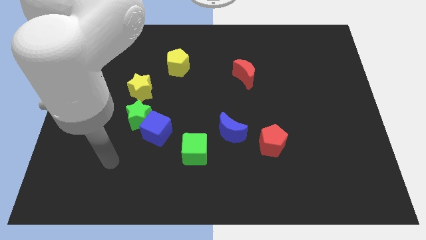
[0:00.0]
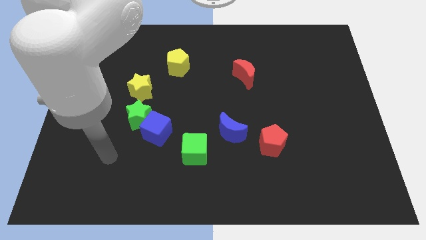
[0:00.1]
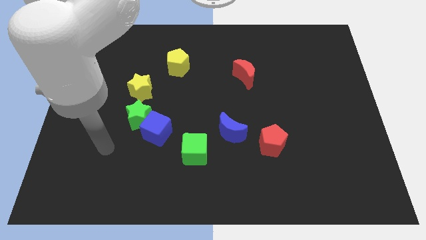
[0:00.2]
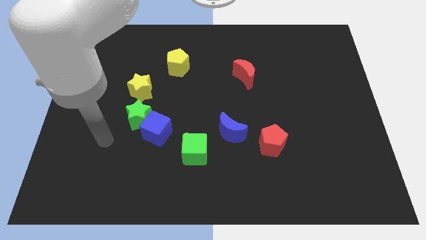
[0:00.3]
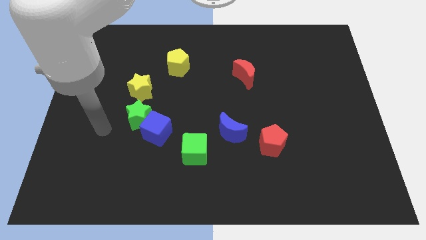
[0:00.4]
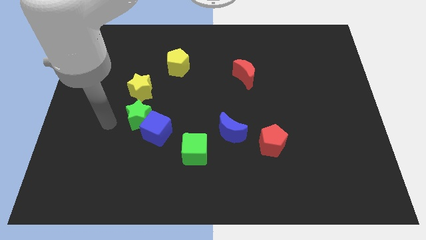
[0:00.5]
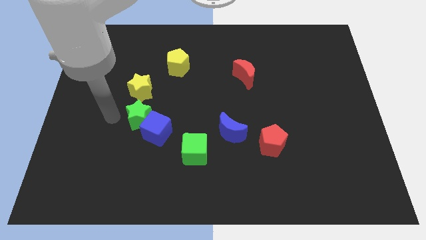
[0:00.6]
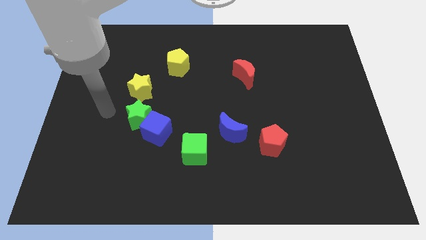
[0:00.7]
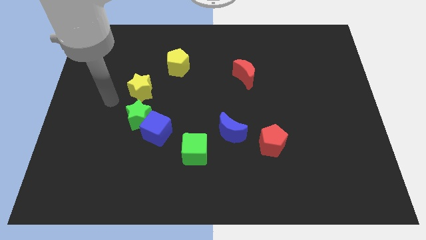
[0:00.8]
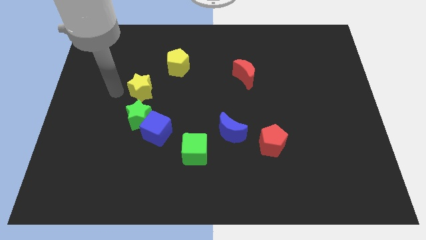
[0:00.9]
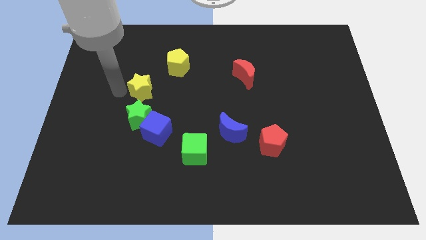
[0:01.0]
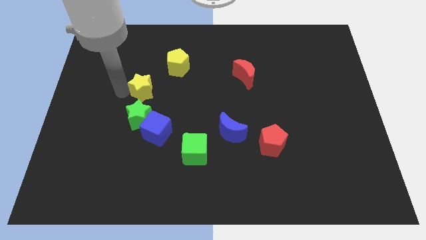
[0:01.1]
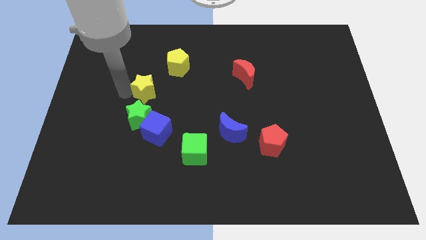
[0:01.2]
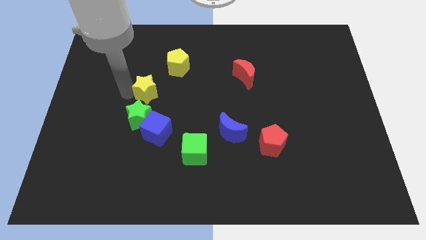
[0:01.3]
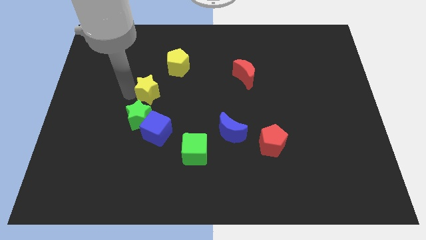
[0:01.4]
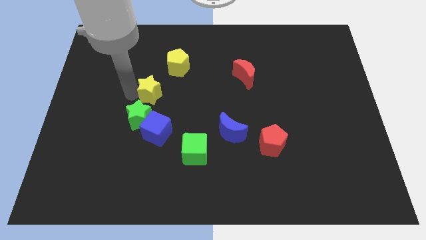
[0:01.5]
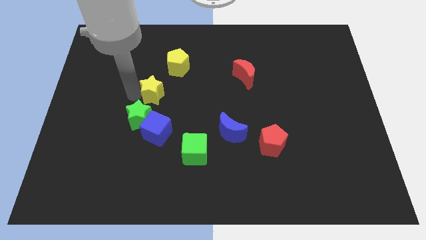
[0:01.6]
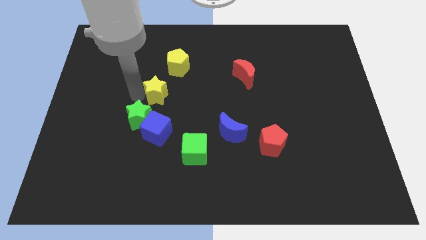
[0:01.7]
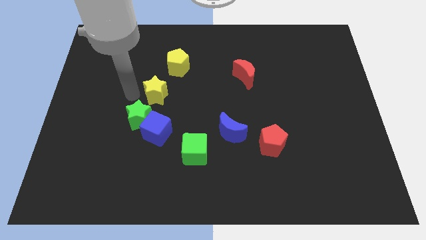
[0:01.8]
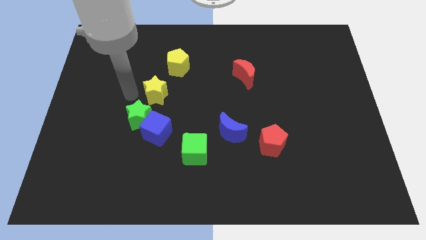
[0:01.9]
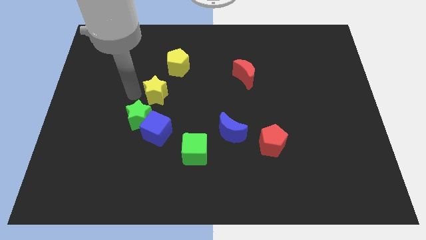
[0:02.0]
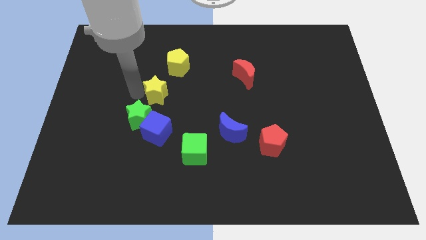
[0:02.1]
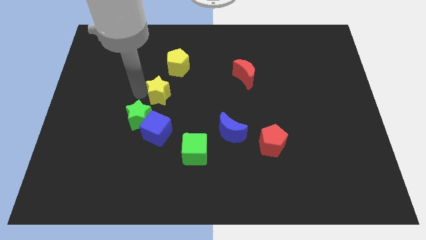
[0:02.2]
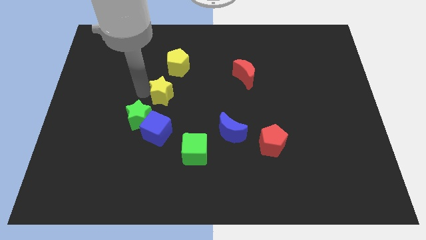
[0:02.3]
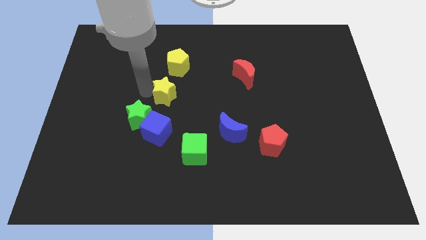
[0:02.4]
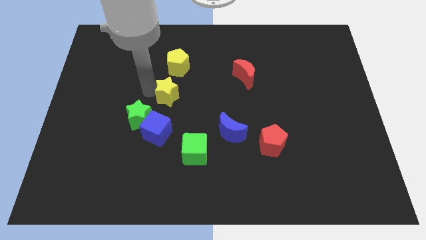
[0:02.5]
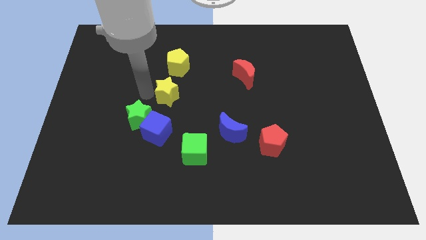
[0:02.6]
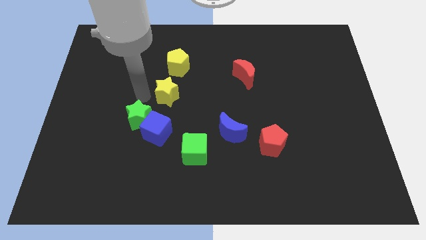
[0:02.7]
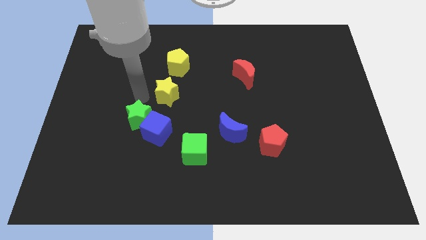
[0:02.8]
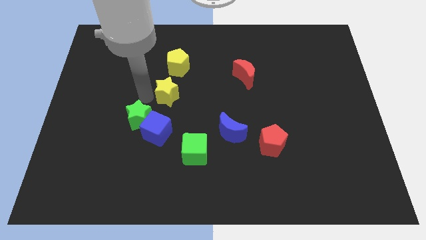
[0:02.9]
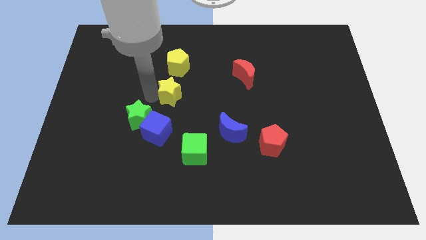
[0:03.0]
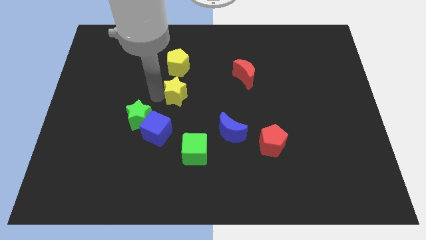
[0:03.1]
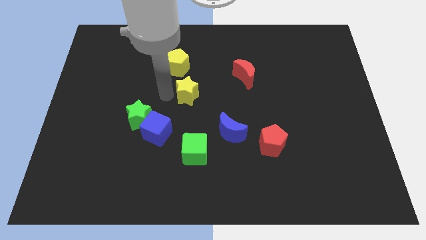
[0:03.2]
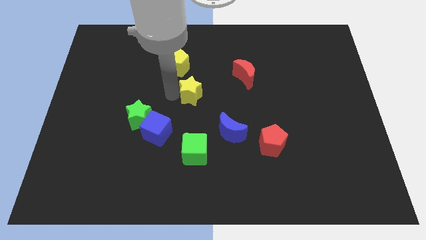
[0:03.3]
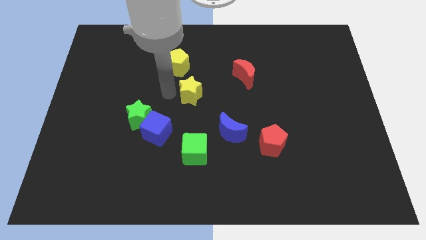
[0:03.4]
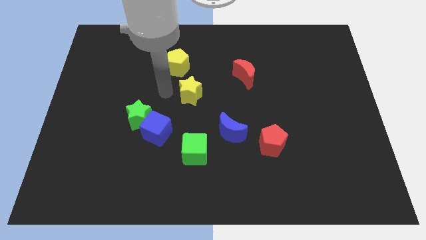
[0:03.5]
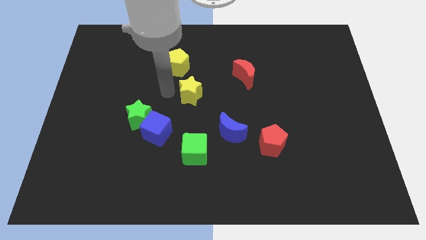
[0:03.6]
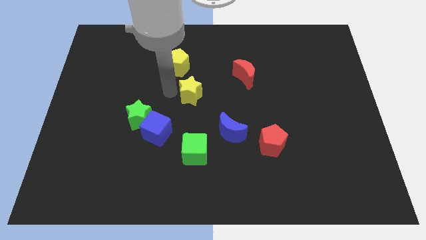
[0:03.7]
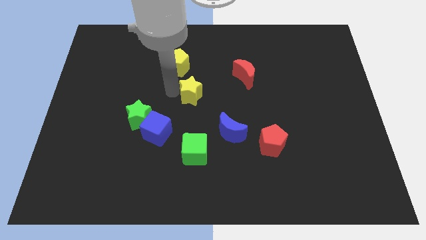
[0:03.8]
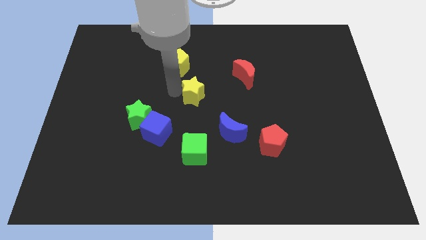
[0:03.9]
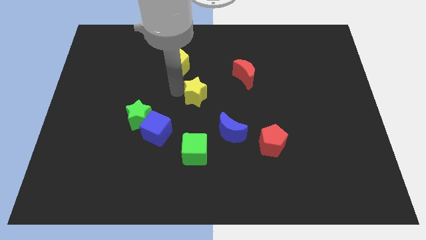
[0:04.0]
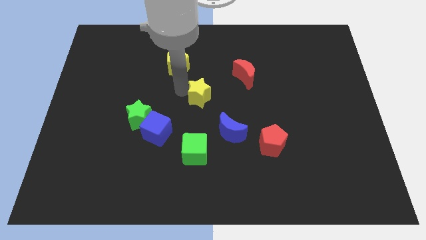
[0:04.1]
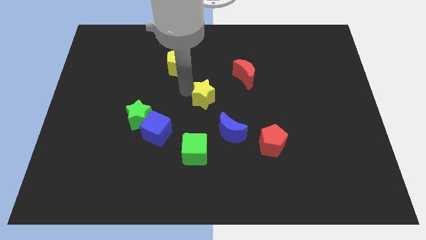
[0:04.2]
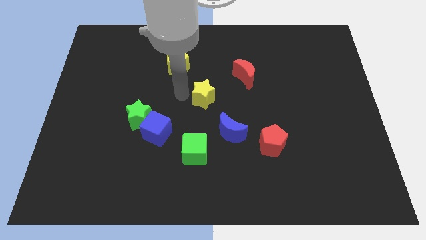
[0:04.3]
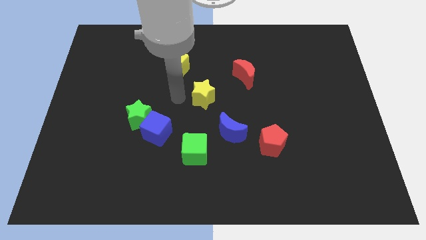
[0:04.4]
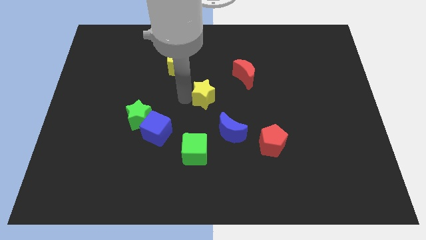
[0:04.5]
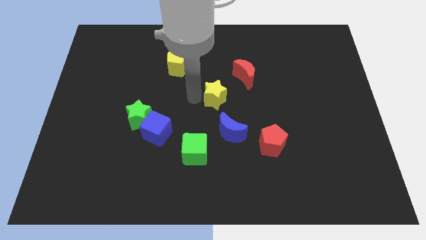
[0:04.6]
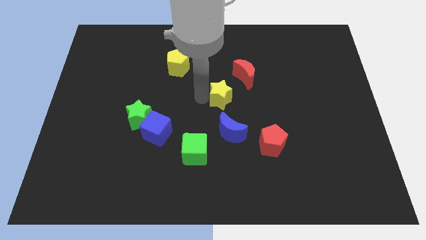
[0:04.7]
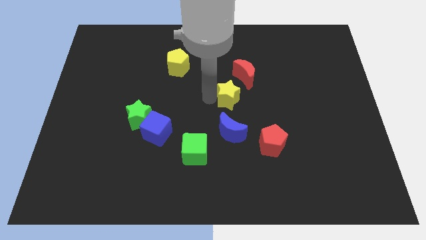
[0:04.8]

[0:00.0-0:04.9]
move the yellow star to the right

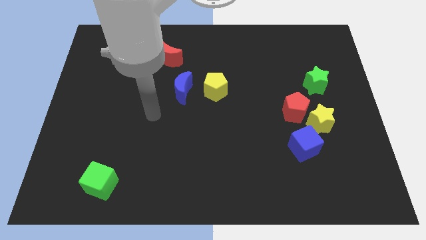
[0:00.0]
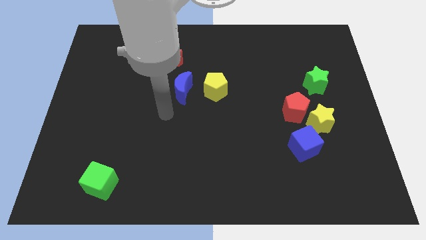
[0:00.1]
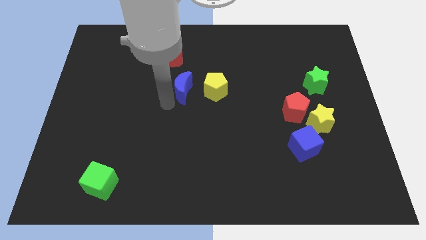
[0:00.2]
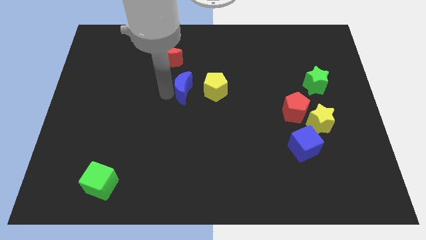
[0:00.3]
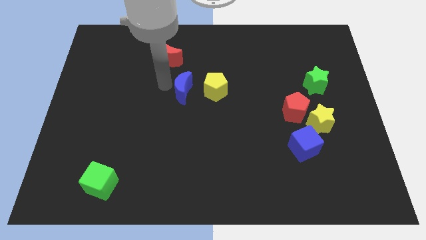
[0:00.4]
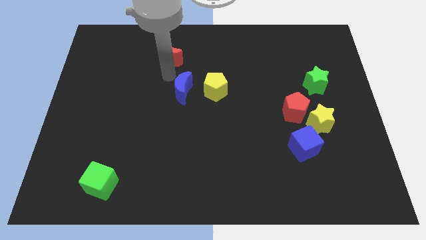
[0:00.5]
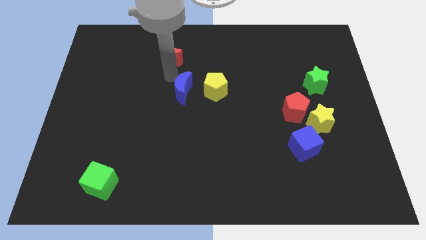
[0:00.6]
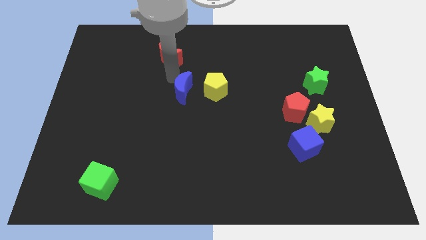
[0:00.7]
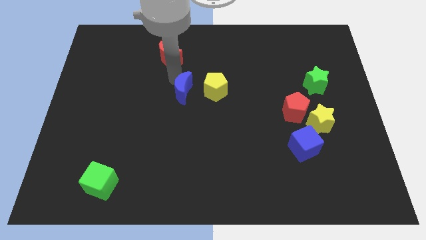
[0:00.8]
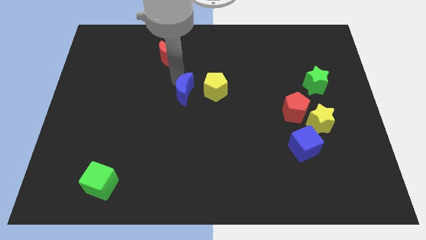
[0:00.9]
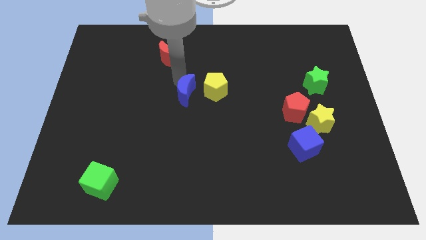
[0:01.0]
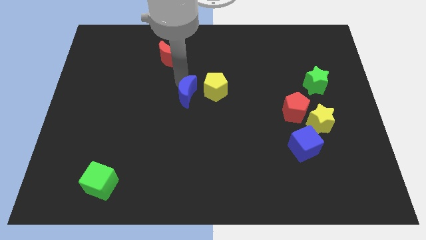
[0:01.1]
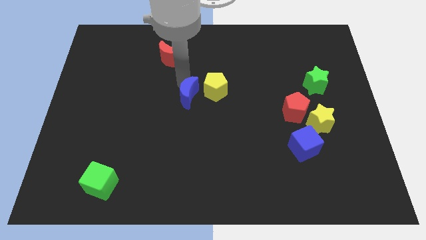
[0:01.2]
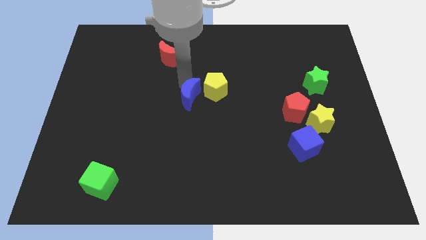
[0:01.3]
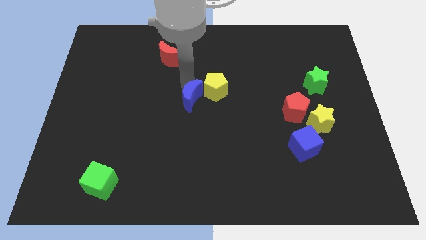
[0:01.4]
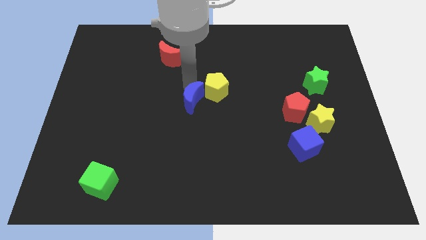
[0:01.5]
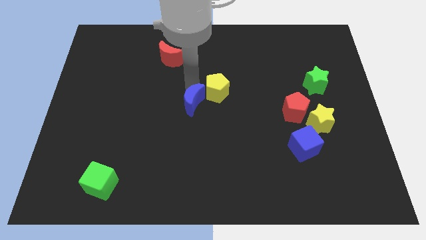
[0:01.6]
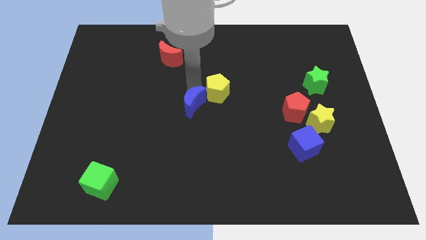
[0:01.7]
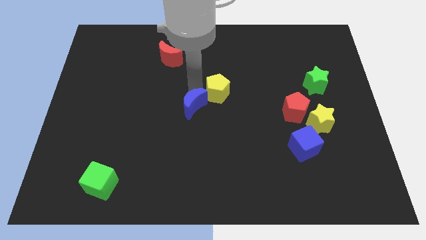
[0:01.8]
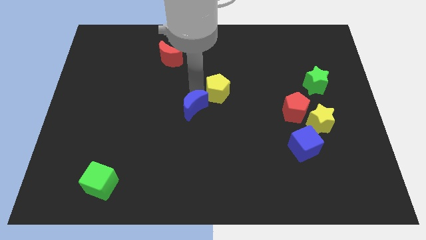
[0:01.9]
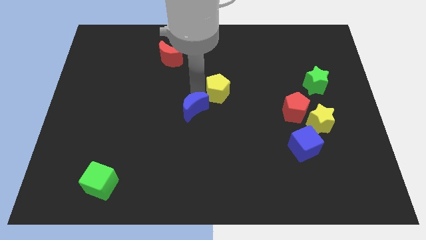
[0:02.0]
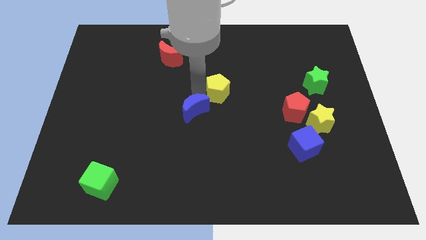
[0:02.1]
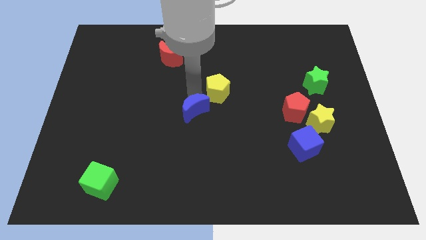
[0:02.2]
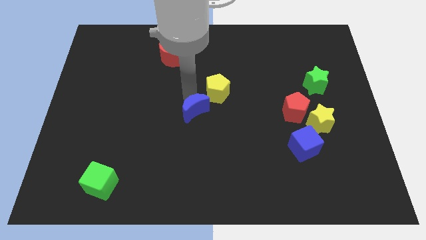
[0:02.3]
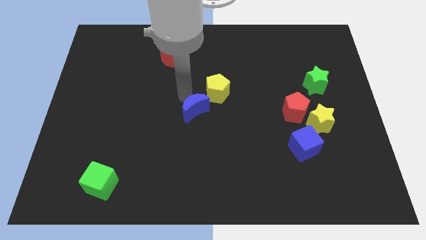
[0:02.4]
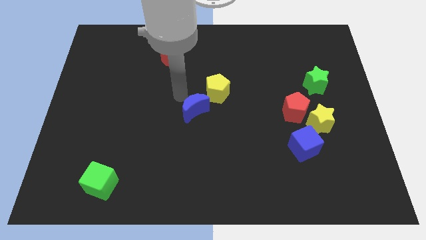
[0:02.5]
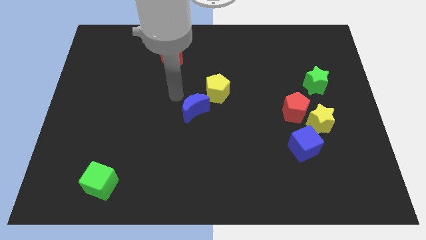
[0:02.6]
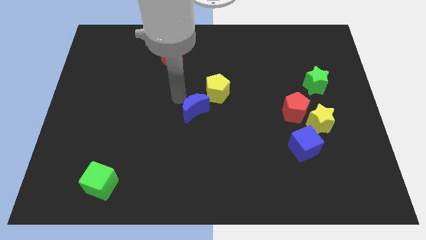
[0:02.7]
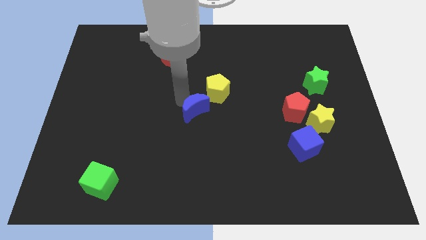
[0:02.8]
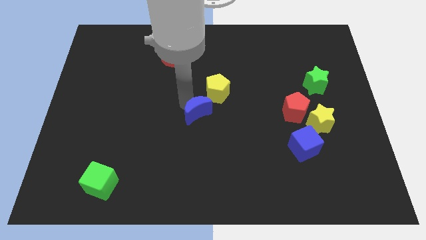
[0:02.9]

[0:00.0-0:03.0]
slightly slide the blue moon down and then to the right

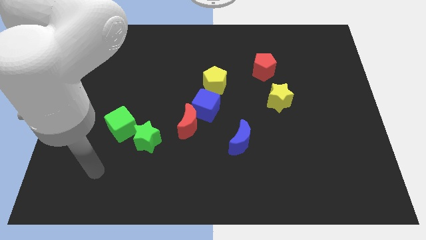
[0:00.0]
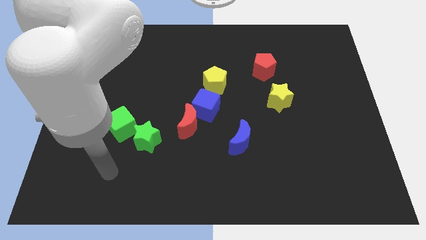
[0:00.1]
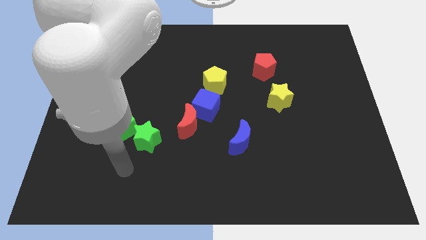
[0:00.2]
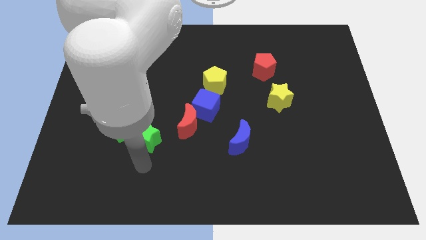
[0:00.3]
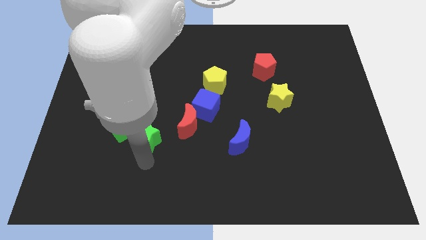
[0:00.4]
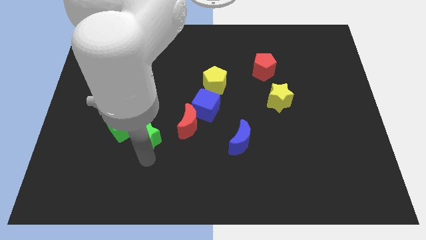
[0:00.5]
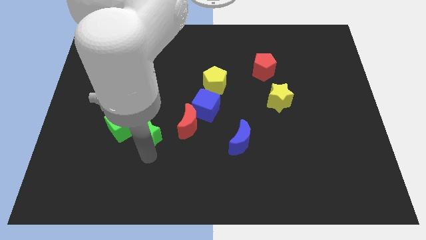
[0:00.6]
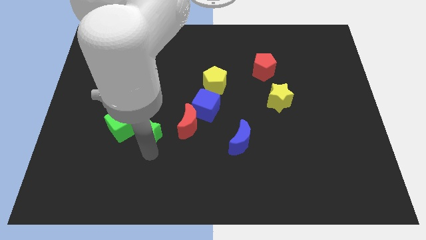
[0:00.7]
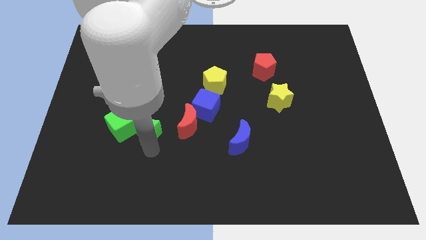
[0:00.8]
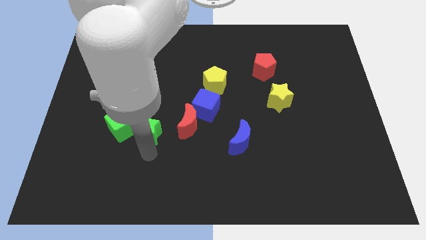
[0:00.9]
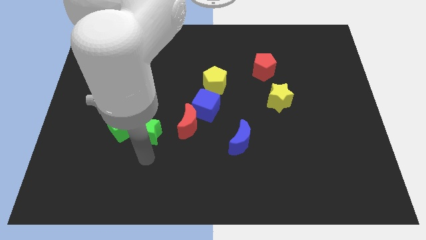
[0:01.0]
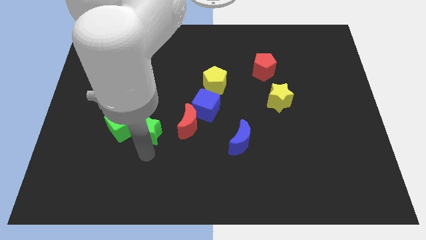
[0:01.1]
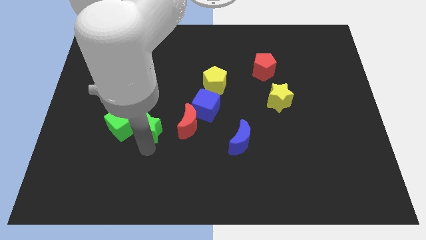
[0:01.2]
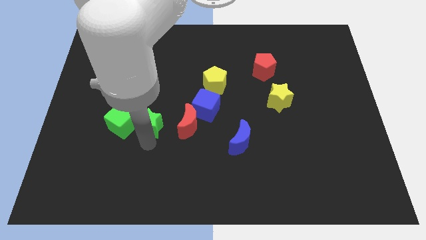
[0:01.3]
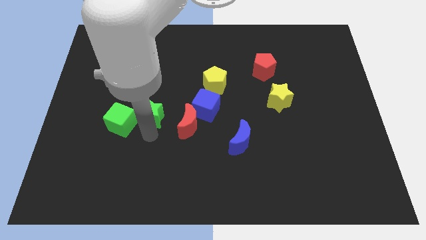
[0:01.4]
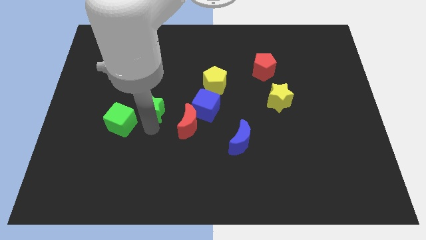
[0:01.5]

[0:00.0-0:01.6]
move the green star a little upwards
